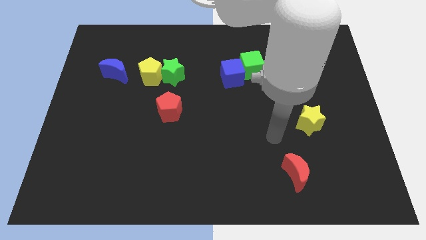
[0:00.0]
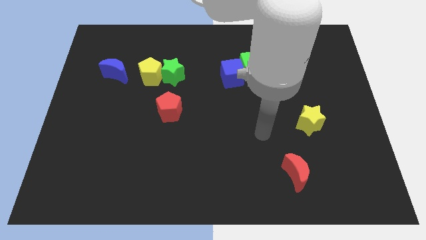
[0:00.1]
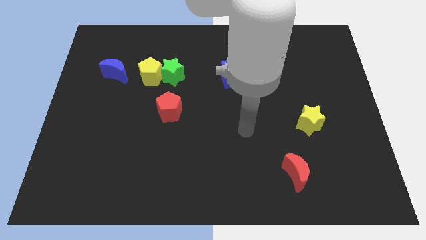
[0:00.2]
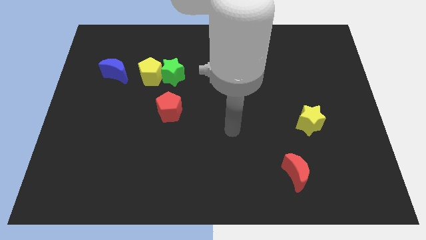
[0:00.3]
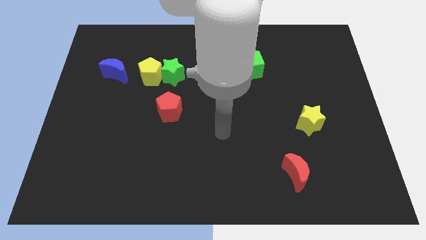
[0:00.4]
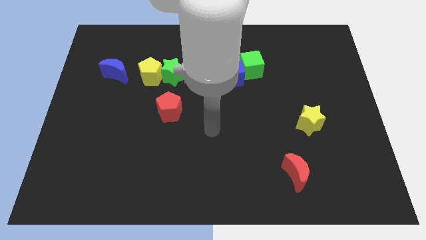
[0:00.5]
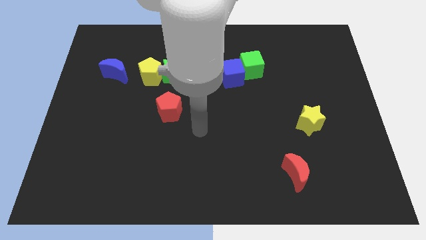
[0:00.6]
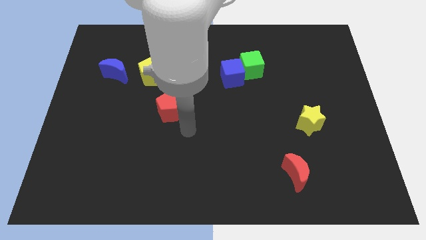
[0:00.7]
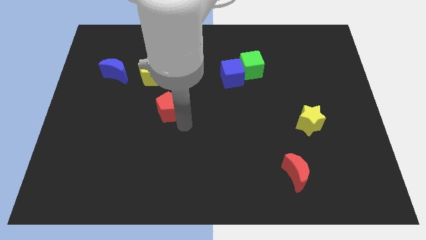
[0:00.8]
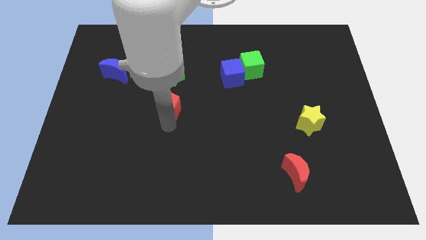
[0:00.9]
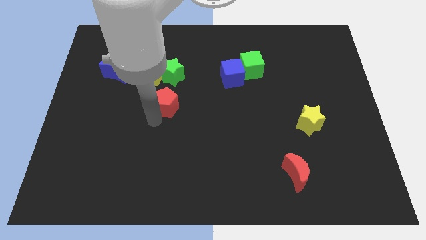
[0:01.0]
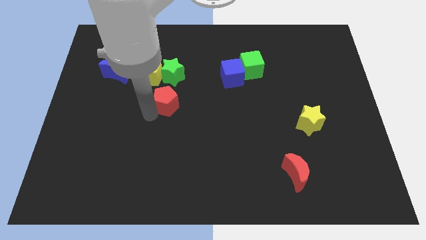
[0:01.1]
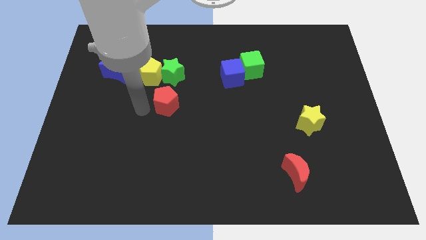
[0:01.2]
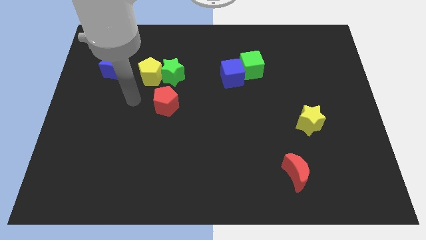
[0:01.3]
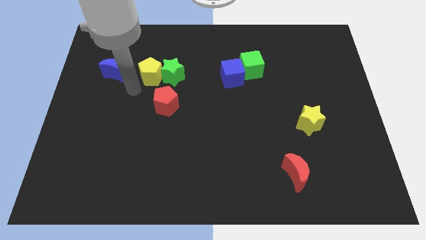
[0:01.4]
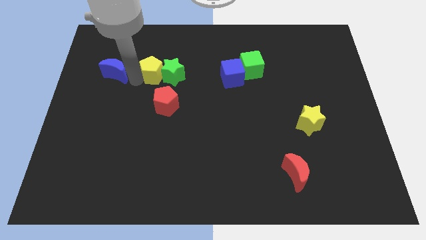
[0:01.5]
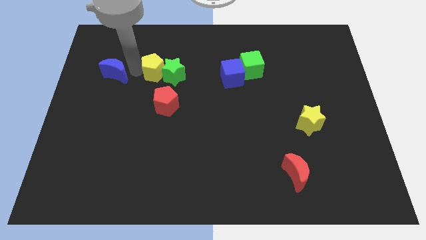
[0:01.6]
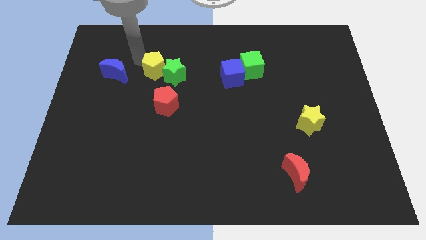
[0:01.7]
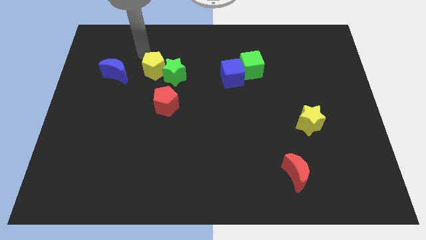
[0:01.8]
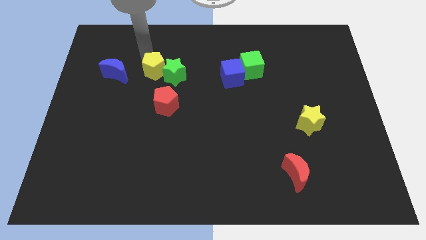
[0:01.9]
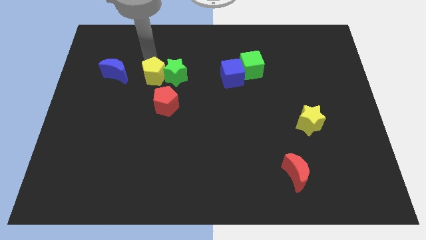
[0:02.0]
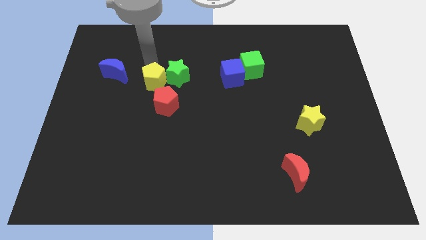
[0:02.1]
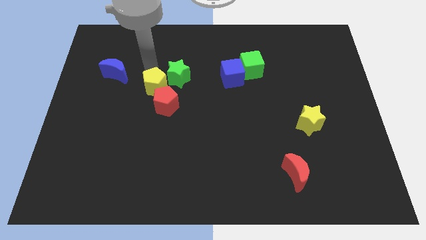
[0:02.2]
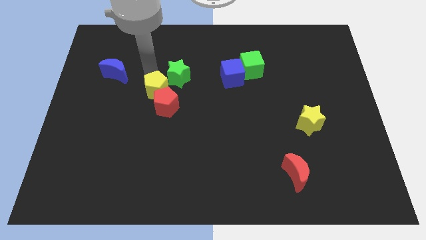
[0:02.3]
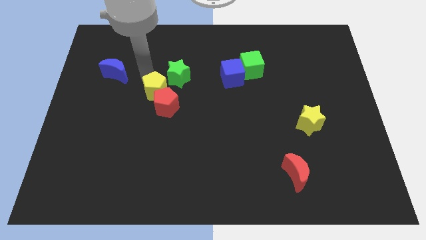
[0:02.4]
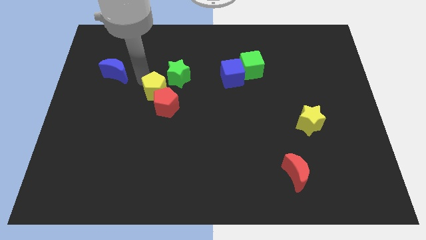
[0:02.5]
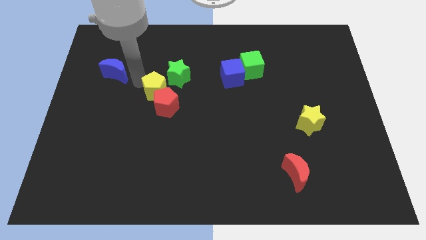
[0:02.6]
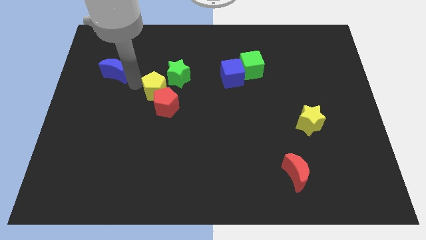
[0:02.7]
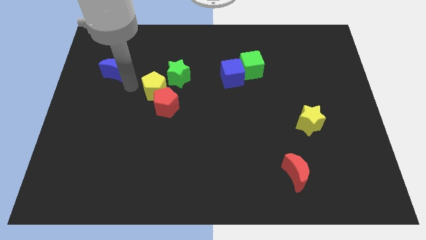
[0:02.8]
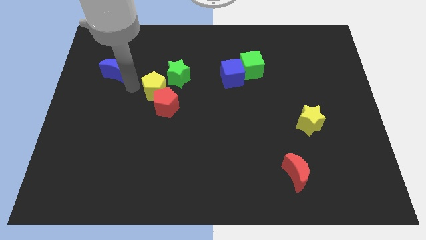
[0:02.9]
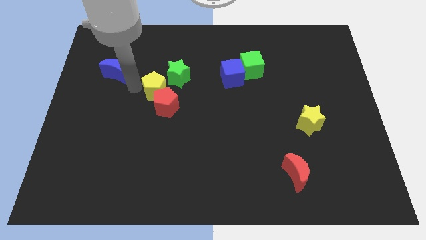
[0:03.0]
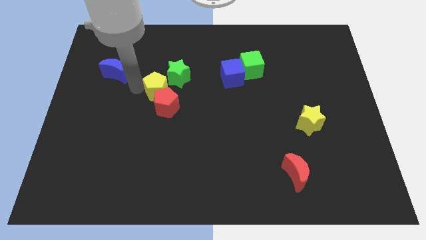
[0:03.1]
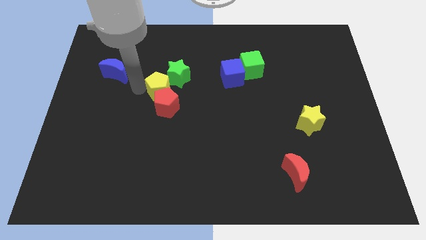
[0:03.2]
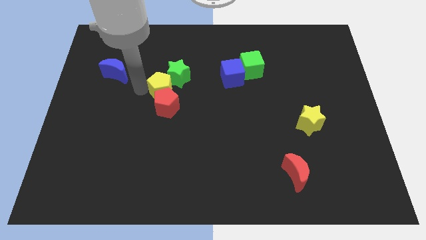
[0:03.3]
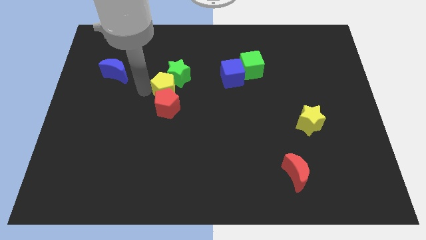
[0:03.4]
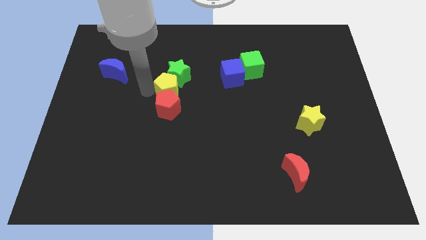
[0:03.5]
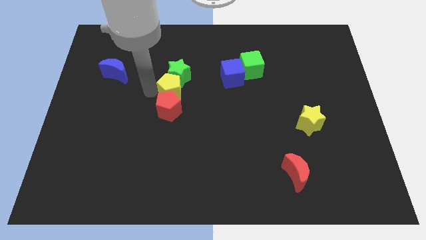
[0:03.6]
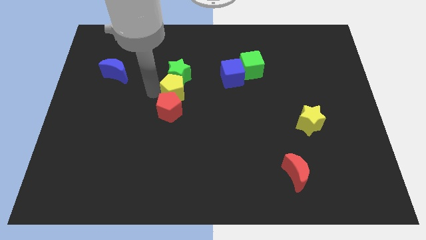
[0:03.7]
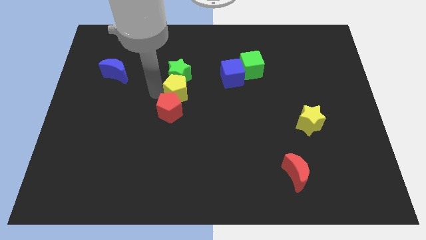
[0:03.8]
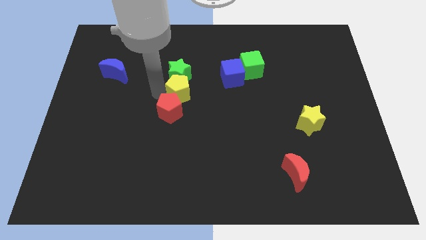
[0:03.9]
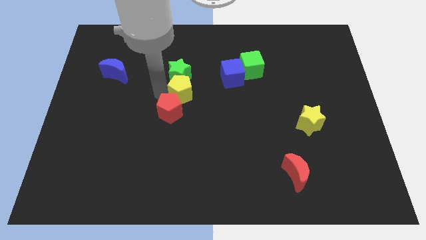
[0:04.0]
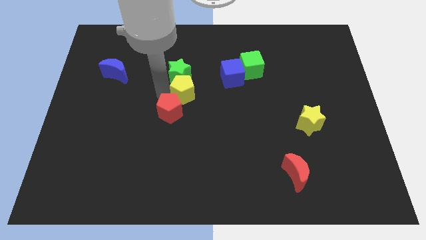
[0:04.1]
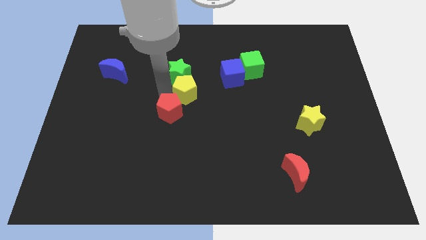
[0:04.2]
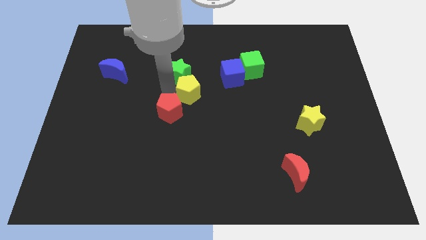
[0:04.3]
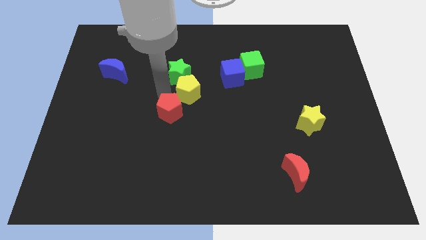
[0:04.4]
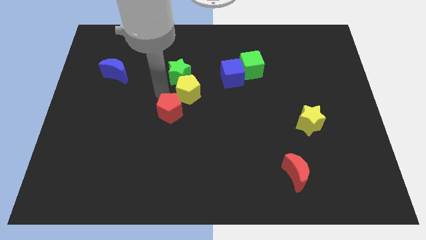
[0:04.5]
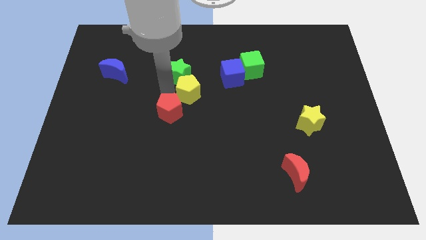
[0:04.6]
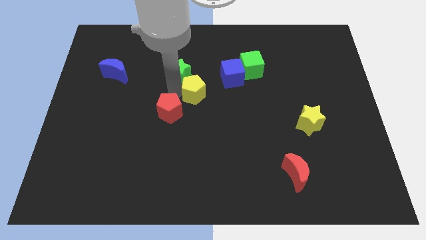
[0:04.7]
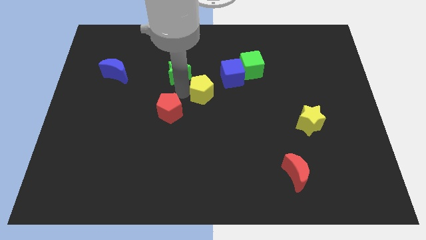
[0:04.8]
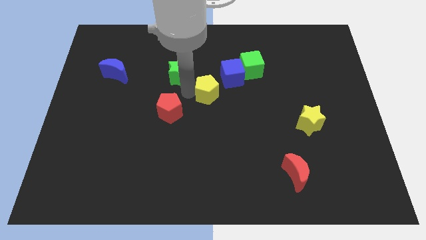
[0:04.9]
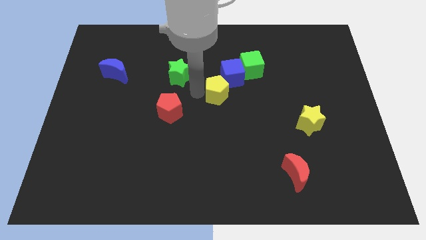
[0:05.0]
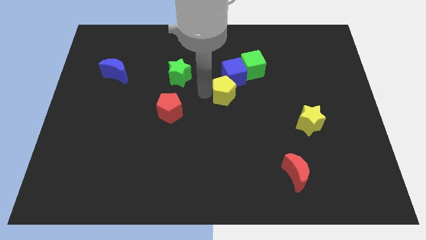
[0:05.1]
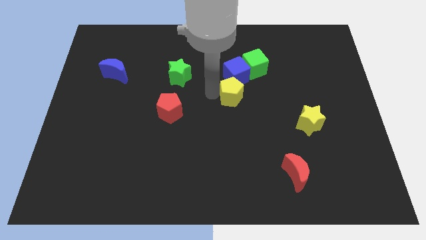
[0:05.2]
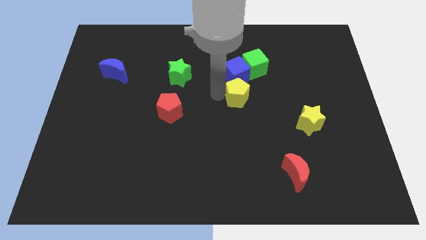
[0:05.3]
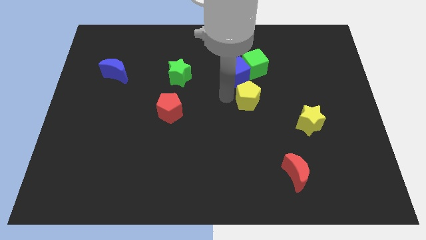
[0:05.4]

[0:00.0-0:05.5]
slide the yellow pentagon right

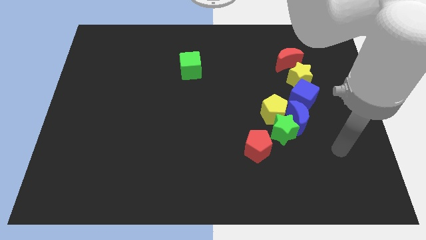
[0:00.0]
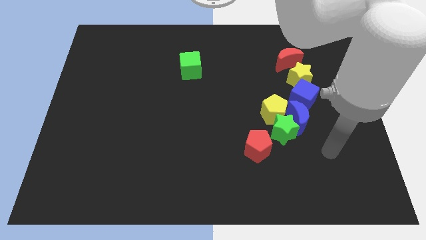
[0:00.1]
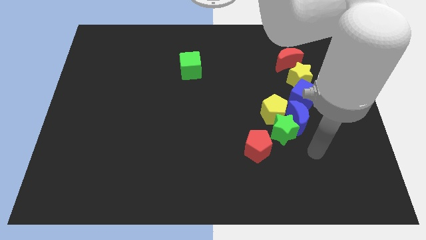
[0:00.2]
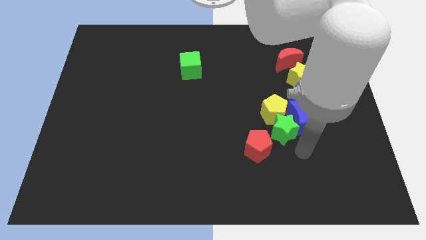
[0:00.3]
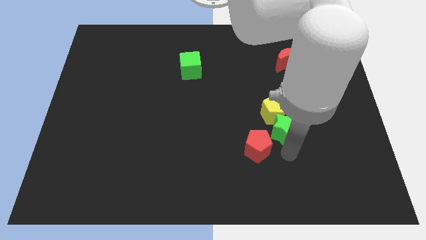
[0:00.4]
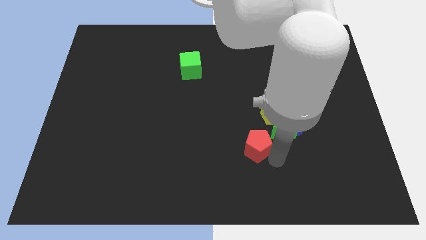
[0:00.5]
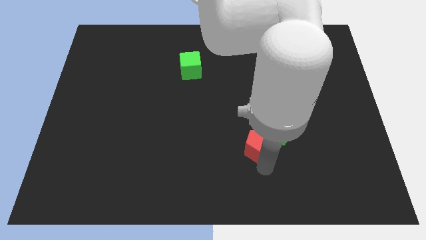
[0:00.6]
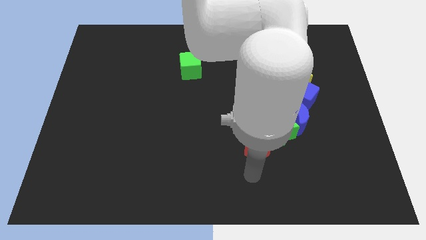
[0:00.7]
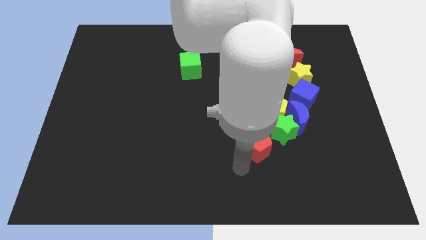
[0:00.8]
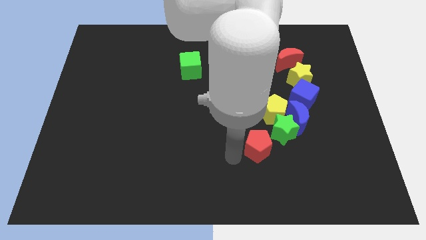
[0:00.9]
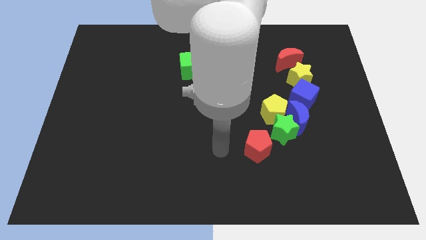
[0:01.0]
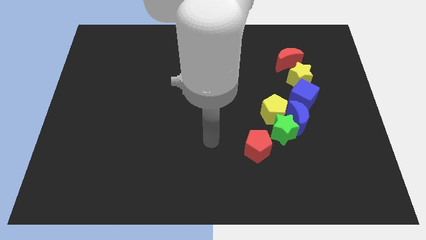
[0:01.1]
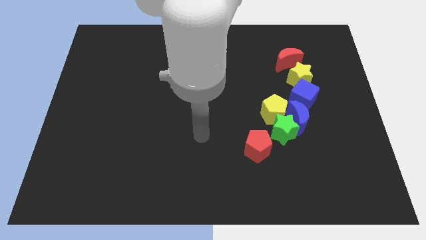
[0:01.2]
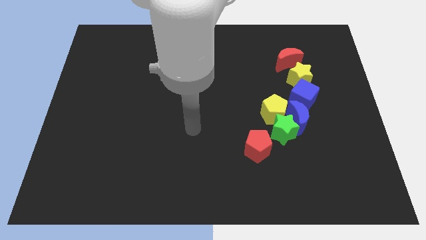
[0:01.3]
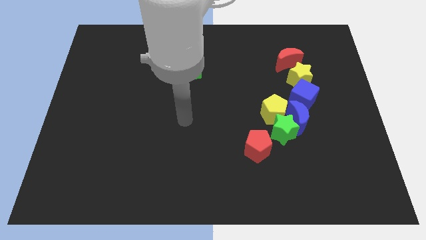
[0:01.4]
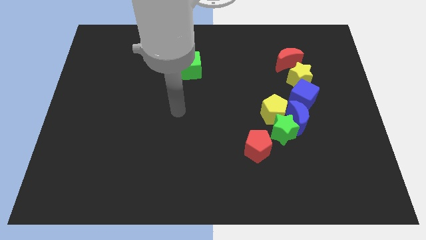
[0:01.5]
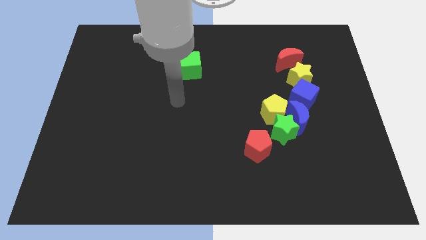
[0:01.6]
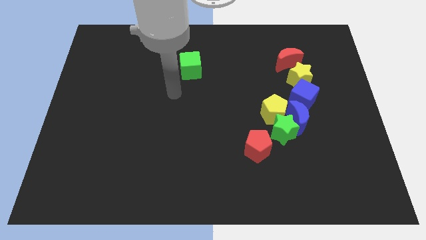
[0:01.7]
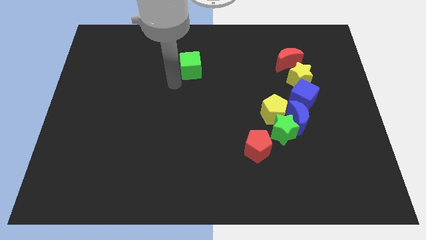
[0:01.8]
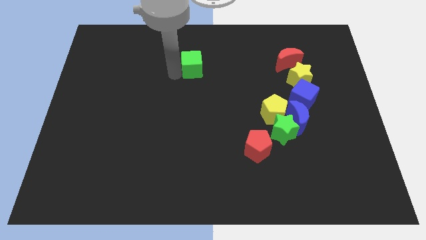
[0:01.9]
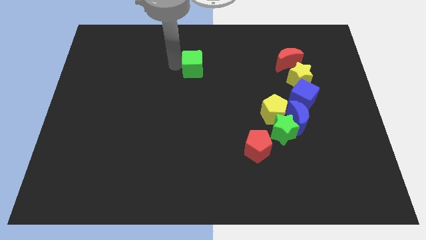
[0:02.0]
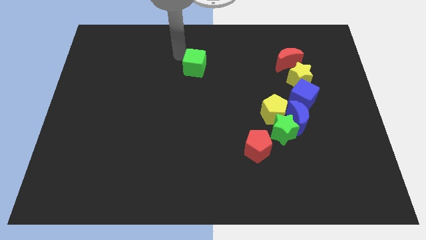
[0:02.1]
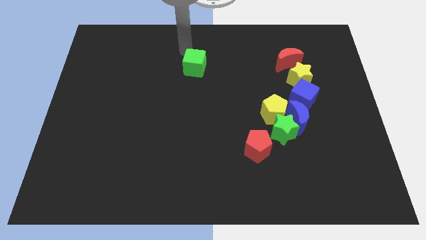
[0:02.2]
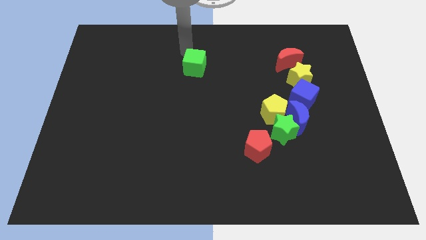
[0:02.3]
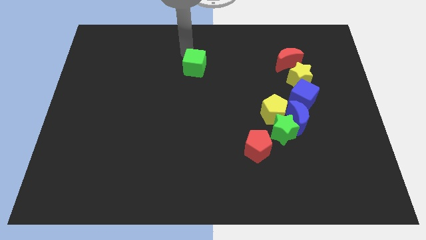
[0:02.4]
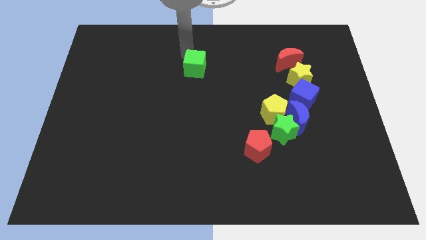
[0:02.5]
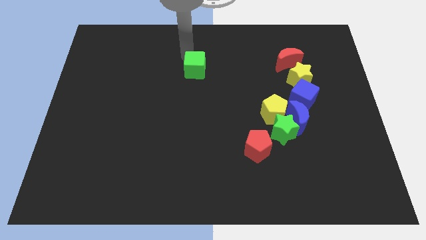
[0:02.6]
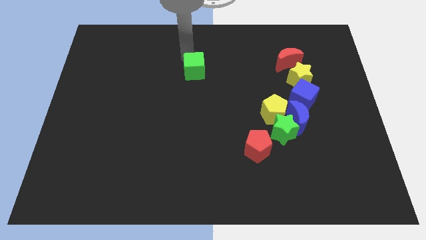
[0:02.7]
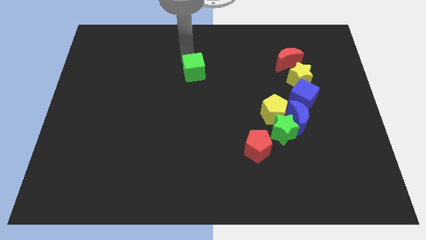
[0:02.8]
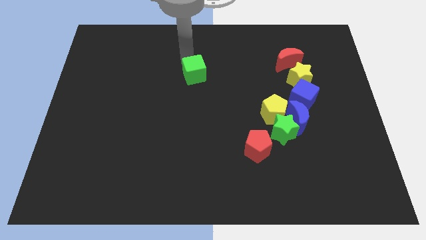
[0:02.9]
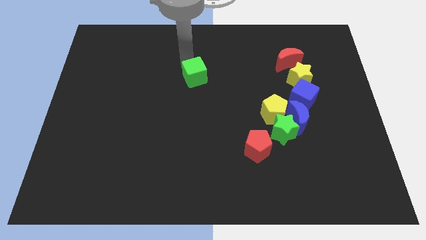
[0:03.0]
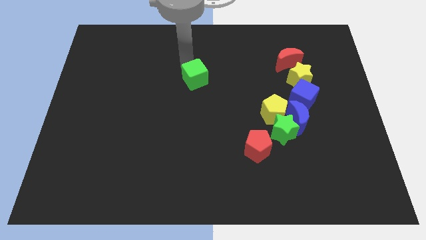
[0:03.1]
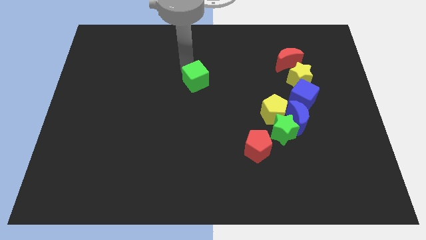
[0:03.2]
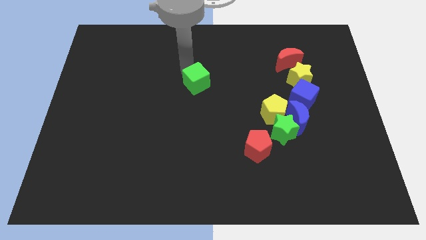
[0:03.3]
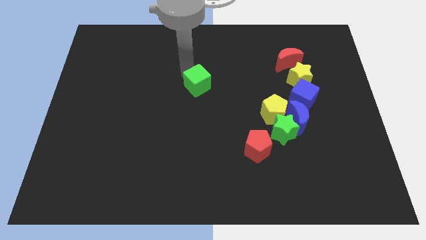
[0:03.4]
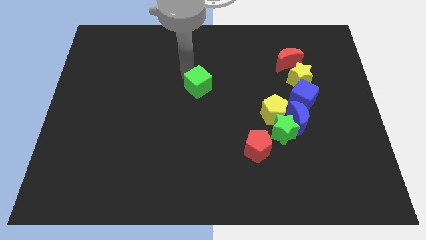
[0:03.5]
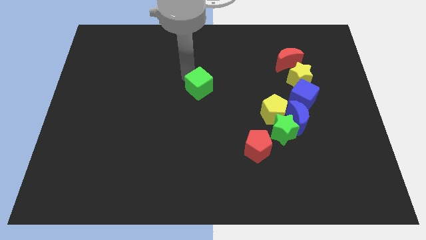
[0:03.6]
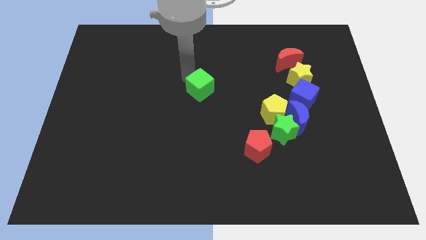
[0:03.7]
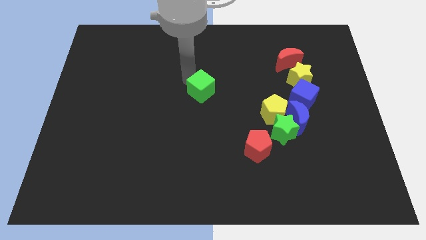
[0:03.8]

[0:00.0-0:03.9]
push the green cube diagonally downwards and right somewhat
